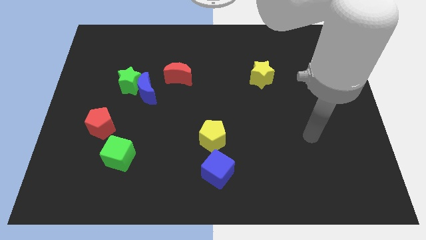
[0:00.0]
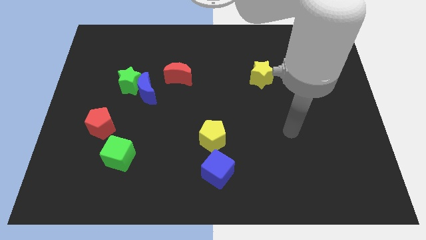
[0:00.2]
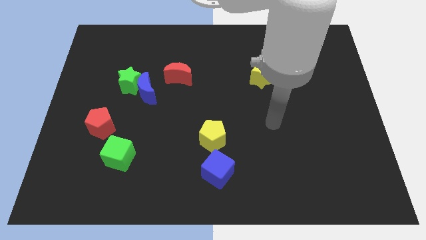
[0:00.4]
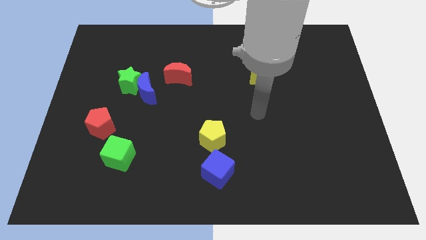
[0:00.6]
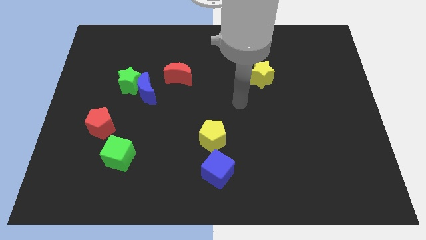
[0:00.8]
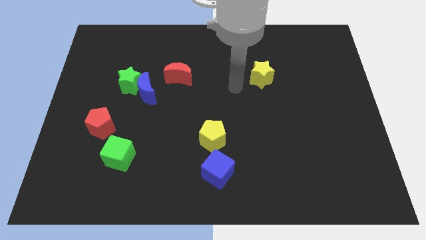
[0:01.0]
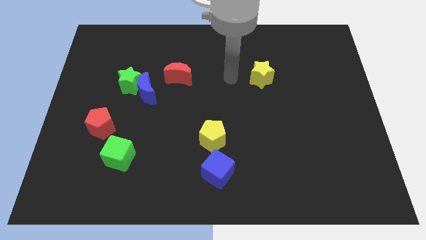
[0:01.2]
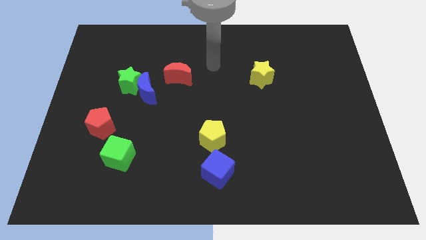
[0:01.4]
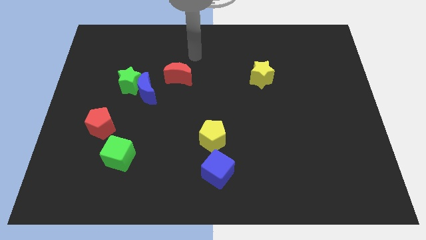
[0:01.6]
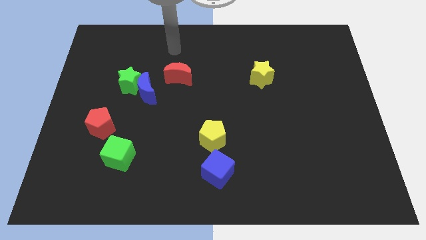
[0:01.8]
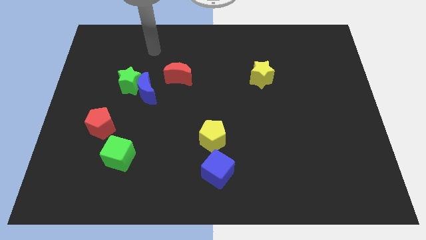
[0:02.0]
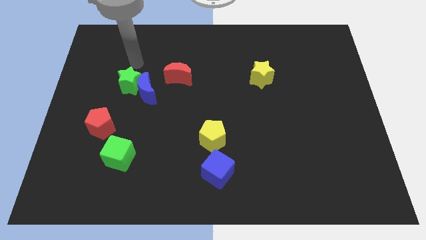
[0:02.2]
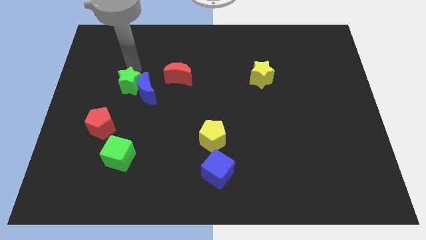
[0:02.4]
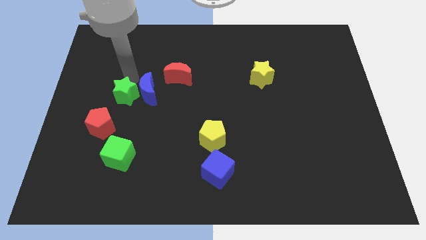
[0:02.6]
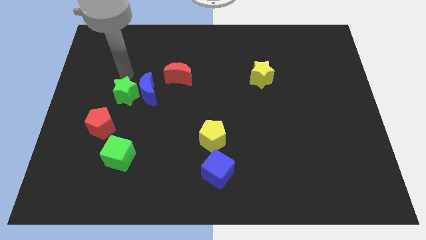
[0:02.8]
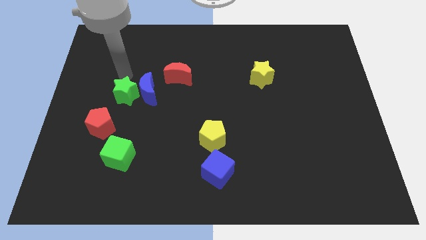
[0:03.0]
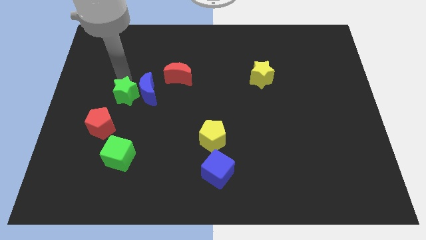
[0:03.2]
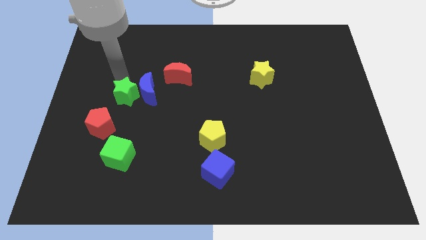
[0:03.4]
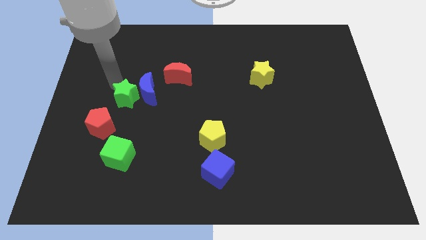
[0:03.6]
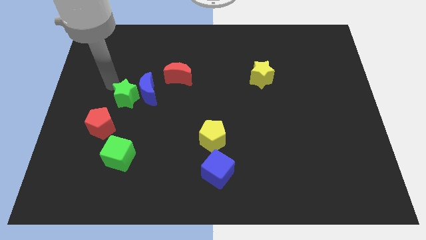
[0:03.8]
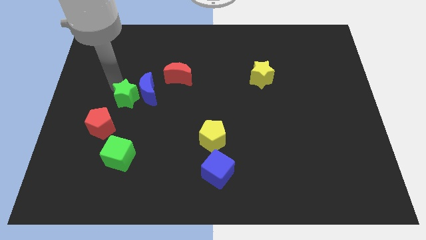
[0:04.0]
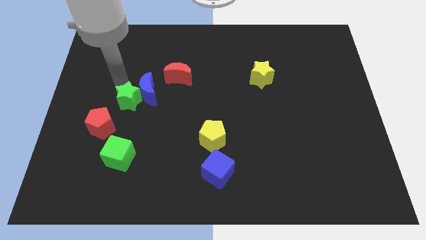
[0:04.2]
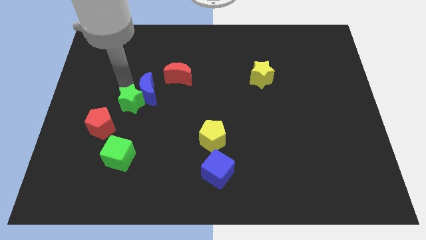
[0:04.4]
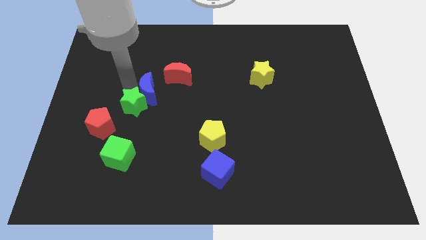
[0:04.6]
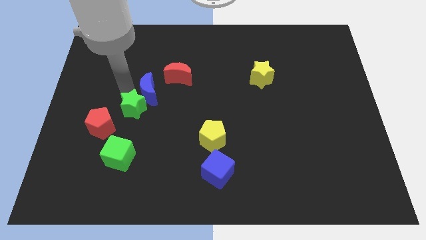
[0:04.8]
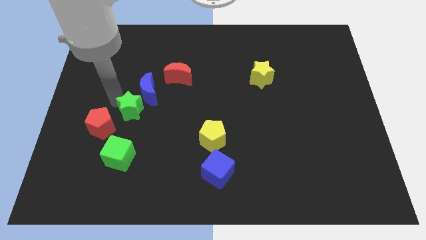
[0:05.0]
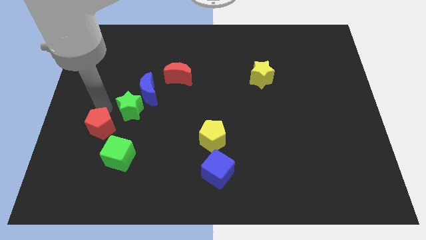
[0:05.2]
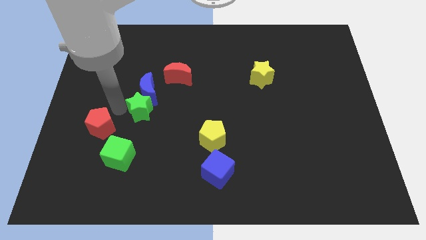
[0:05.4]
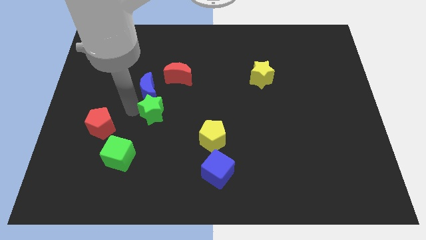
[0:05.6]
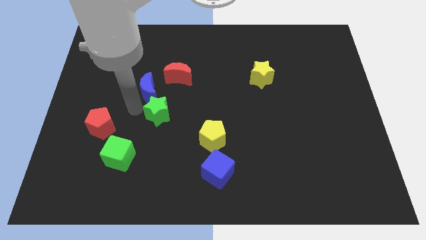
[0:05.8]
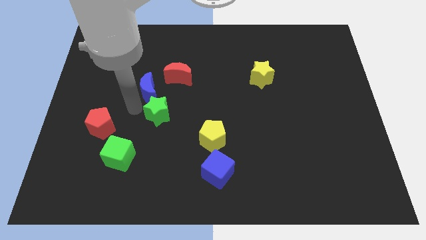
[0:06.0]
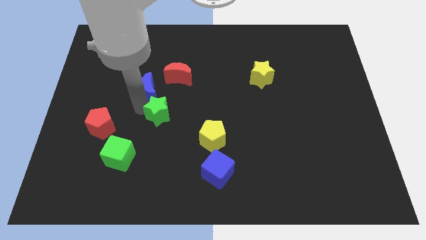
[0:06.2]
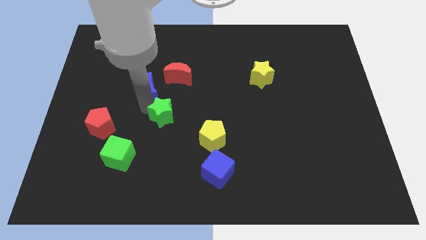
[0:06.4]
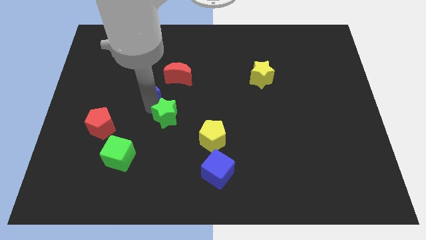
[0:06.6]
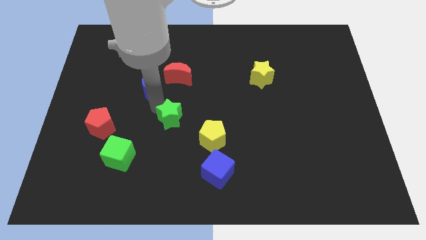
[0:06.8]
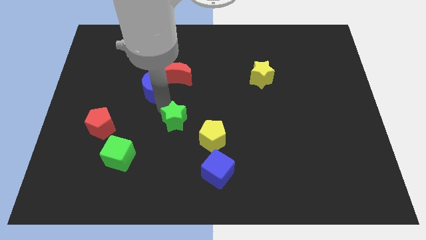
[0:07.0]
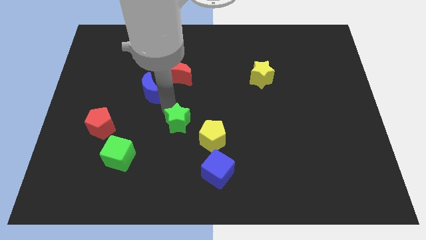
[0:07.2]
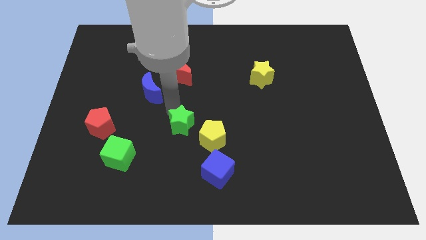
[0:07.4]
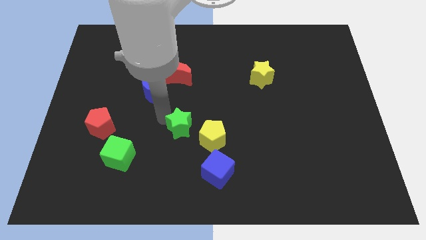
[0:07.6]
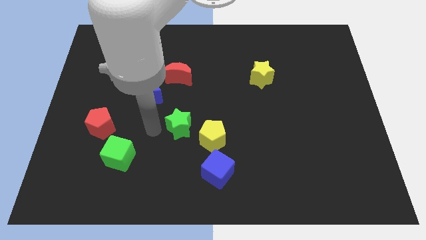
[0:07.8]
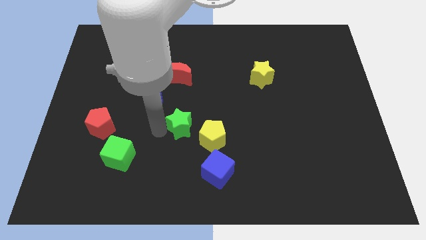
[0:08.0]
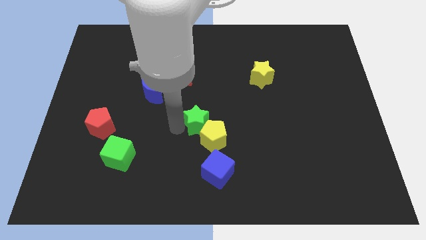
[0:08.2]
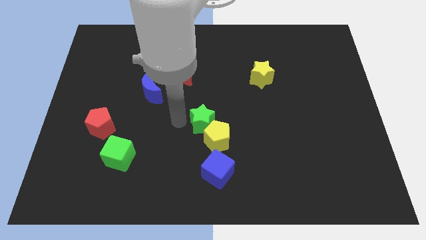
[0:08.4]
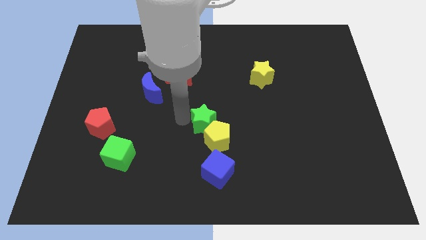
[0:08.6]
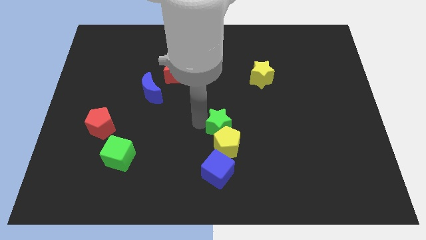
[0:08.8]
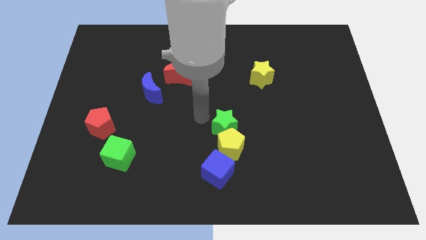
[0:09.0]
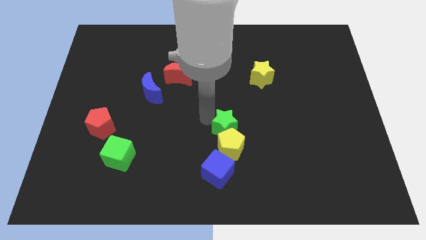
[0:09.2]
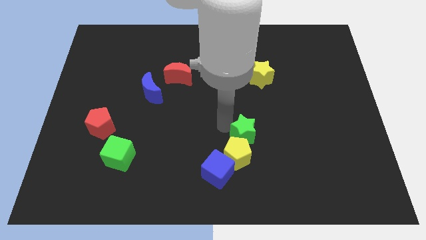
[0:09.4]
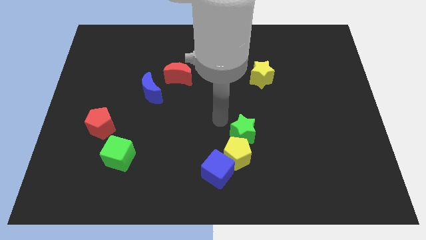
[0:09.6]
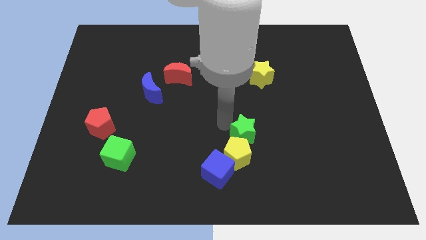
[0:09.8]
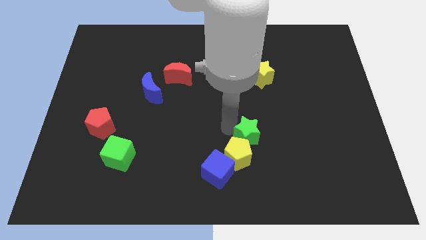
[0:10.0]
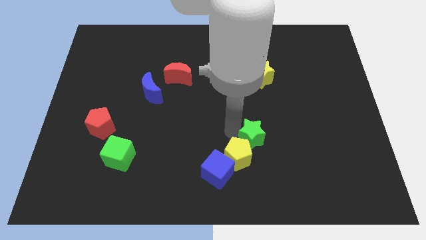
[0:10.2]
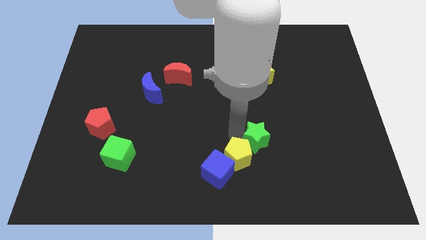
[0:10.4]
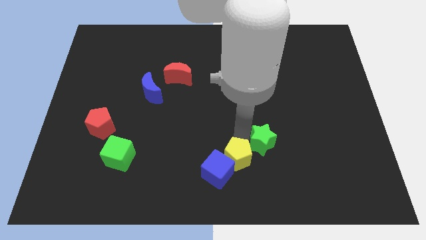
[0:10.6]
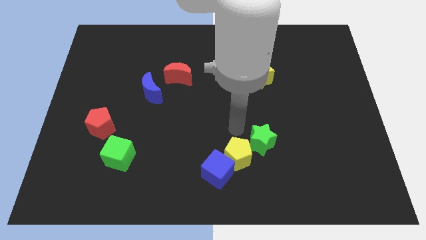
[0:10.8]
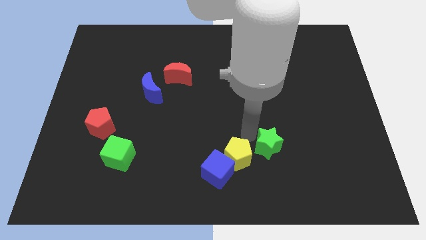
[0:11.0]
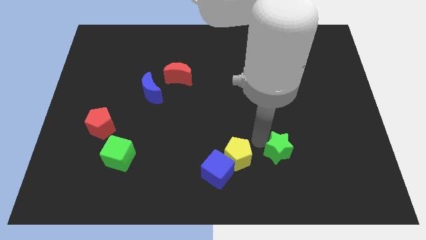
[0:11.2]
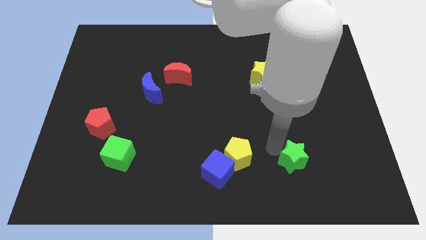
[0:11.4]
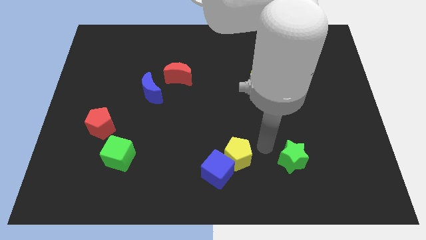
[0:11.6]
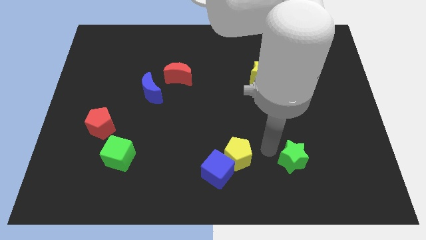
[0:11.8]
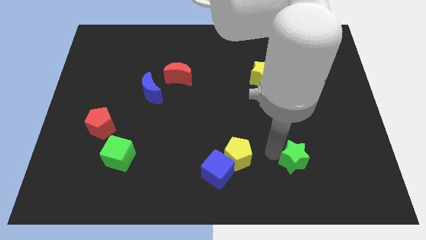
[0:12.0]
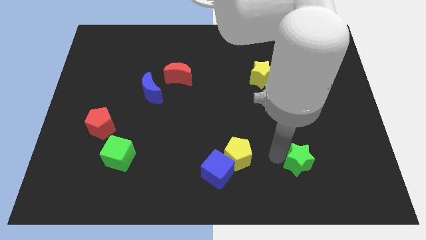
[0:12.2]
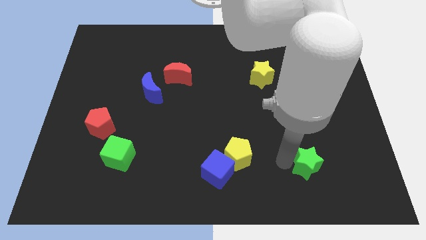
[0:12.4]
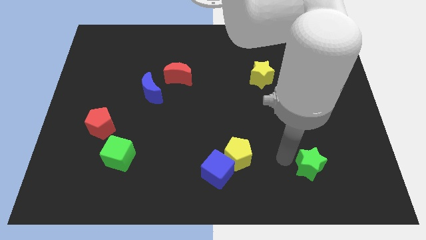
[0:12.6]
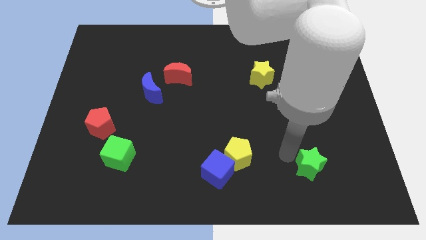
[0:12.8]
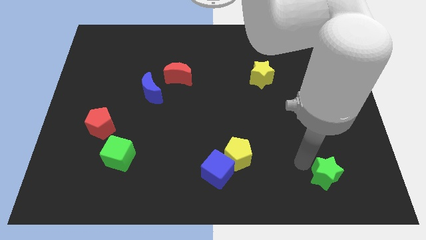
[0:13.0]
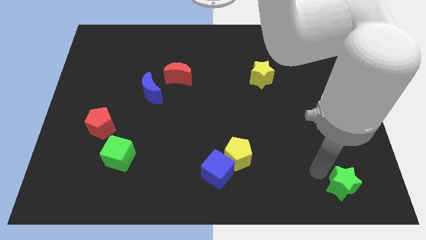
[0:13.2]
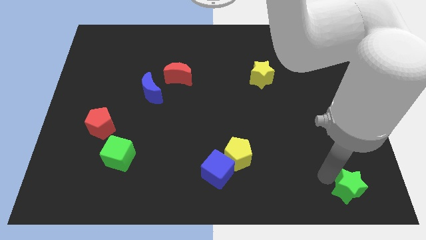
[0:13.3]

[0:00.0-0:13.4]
put the green star to the bottom right

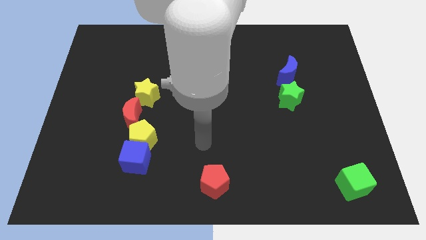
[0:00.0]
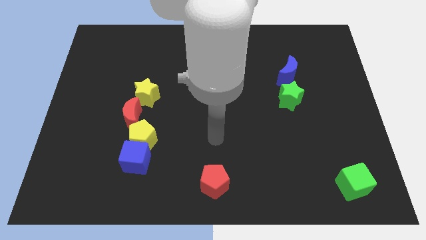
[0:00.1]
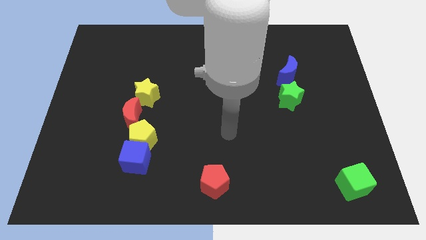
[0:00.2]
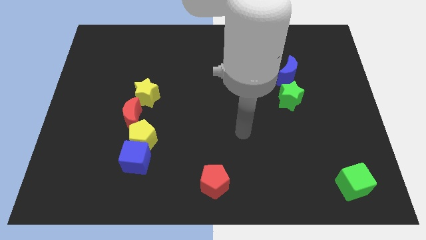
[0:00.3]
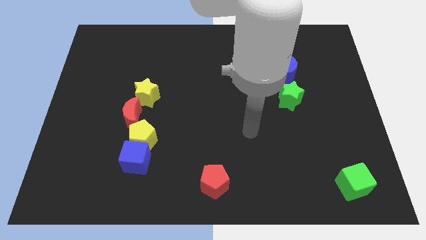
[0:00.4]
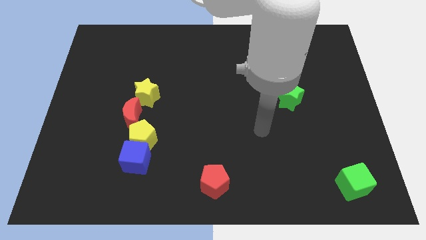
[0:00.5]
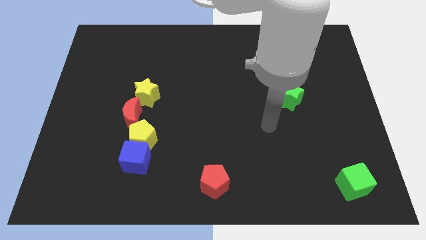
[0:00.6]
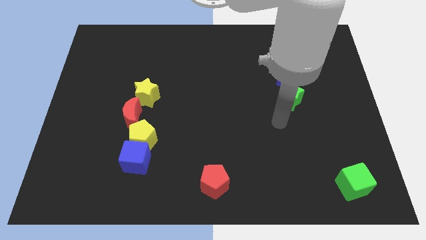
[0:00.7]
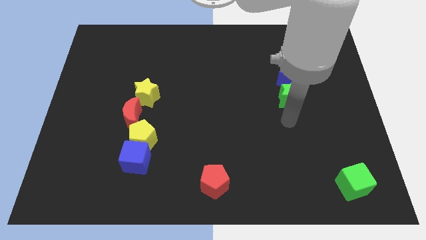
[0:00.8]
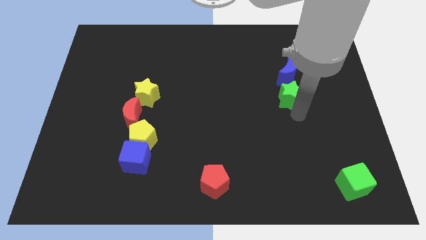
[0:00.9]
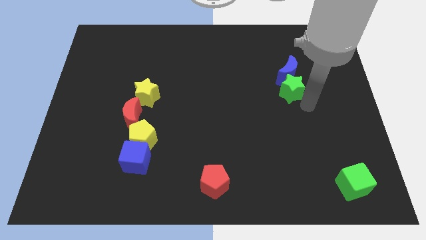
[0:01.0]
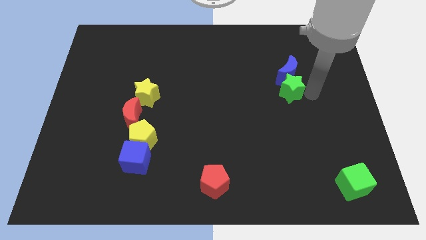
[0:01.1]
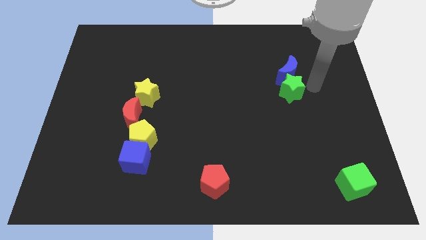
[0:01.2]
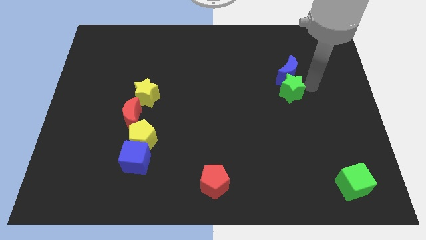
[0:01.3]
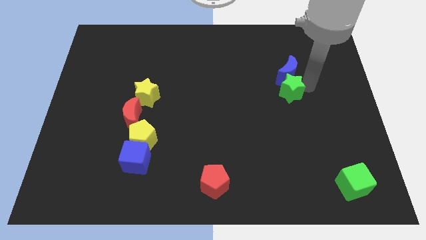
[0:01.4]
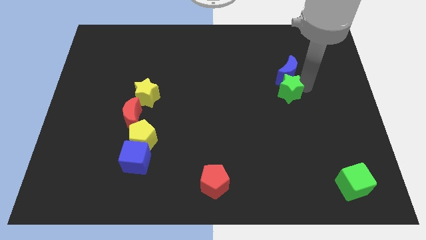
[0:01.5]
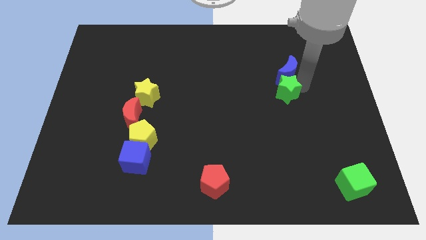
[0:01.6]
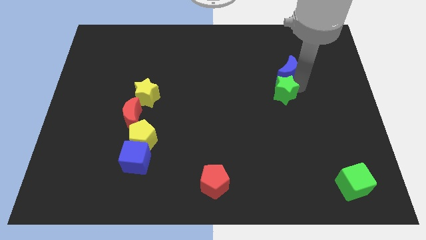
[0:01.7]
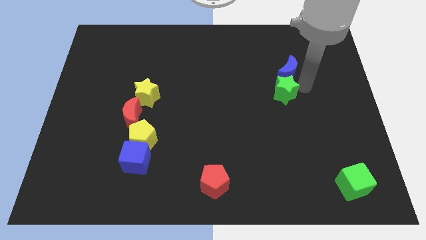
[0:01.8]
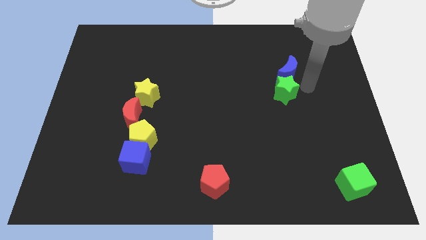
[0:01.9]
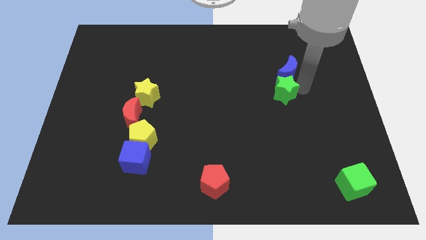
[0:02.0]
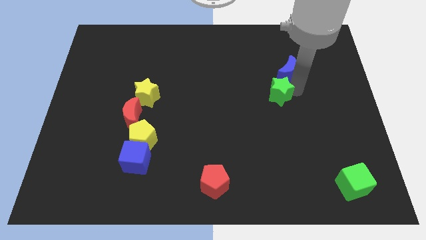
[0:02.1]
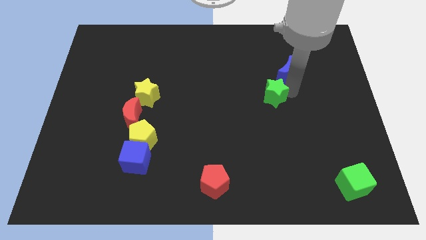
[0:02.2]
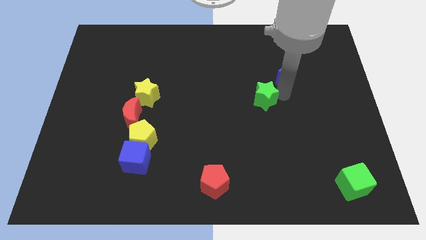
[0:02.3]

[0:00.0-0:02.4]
push the green star to the center of the board
